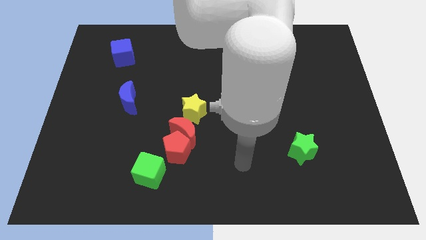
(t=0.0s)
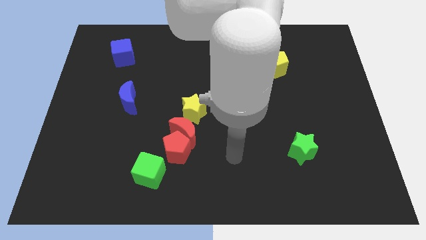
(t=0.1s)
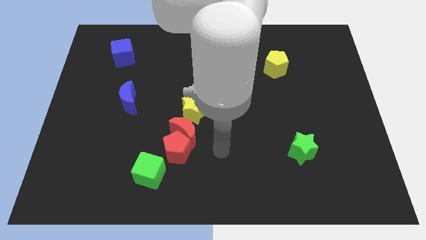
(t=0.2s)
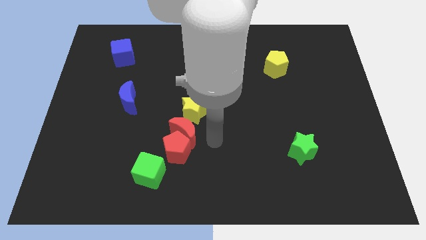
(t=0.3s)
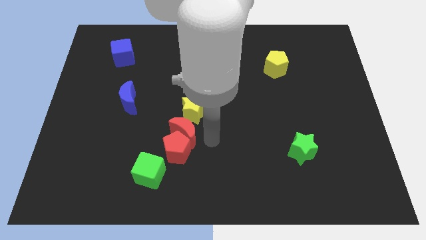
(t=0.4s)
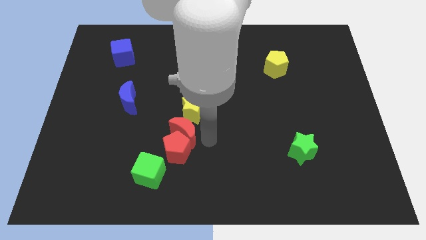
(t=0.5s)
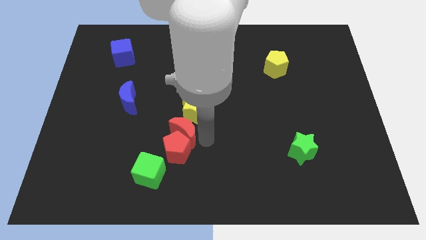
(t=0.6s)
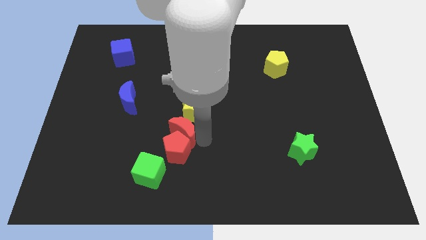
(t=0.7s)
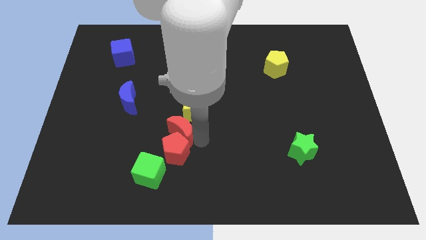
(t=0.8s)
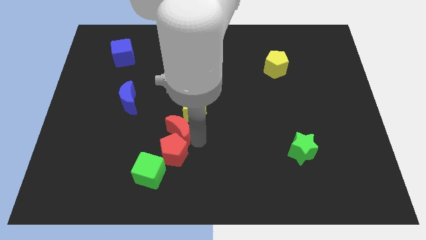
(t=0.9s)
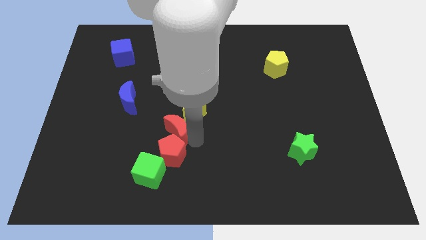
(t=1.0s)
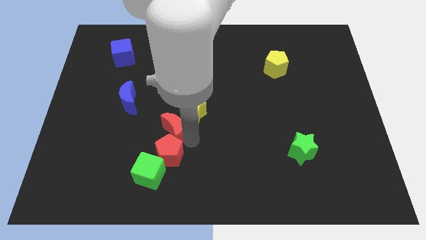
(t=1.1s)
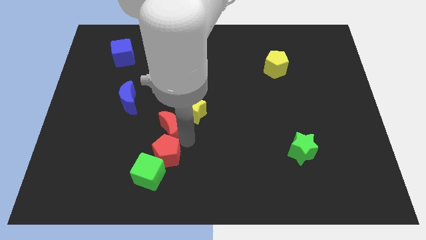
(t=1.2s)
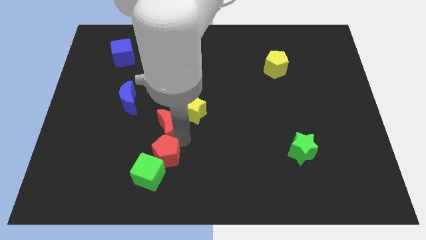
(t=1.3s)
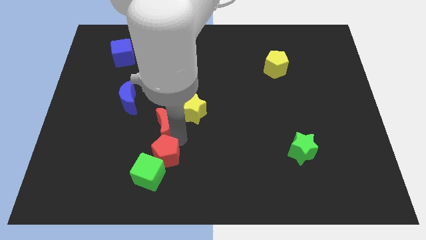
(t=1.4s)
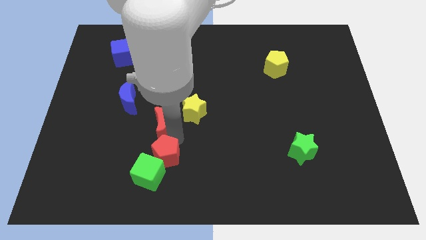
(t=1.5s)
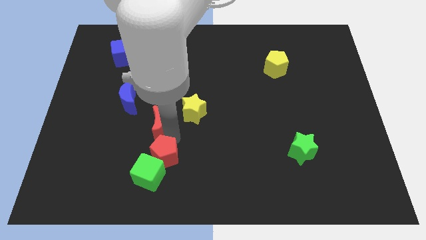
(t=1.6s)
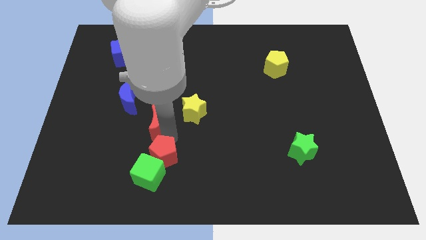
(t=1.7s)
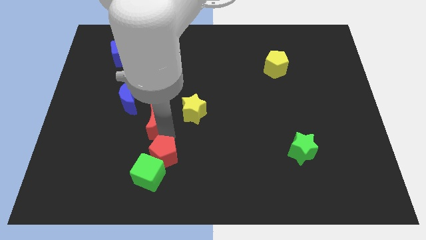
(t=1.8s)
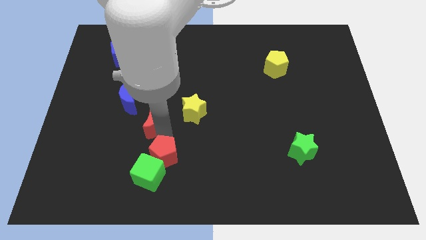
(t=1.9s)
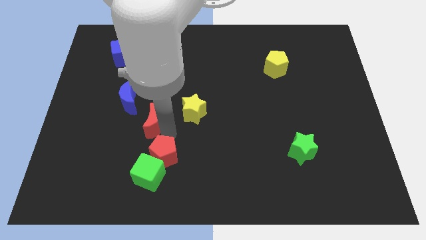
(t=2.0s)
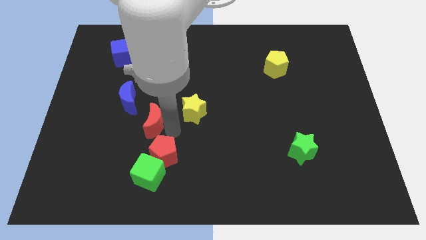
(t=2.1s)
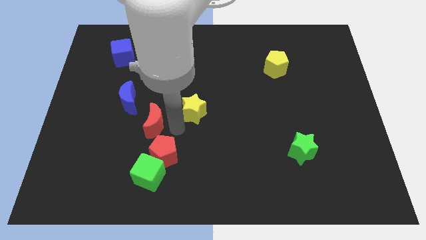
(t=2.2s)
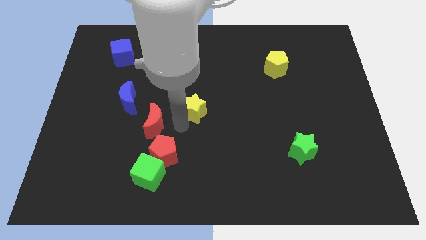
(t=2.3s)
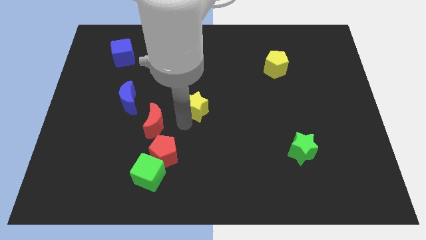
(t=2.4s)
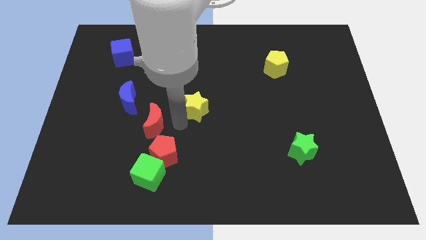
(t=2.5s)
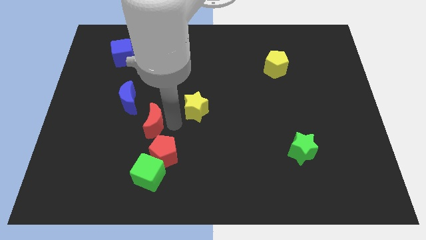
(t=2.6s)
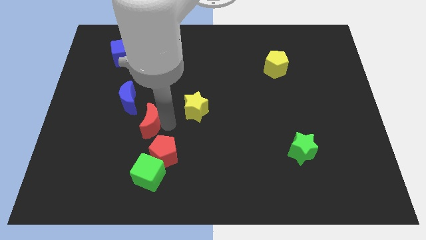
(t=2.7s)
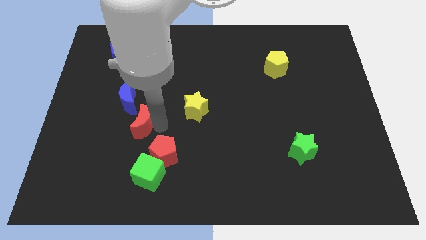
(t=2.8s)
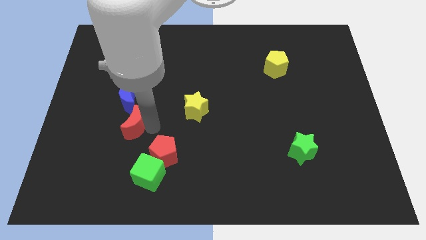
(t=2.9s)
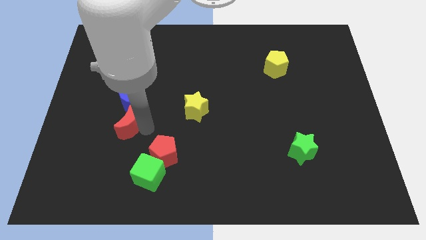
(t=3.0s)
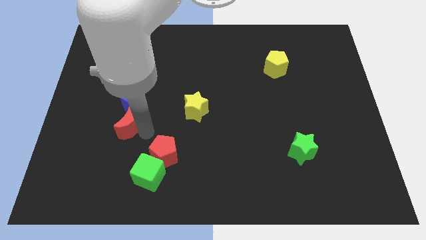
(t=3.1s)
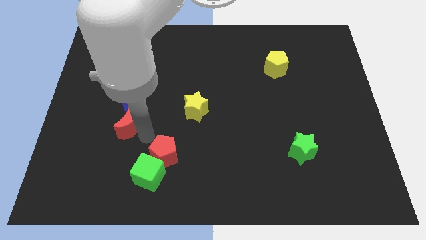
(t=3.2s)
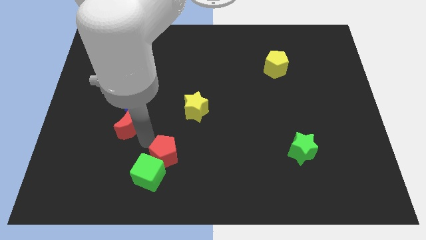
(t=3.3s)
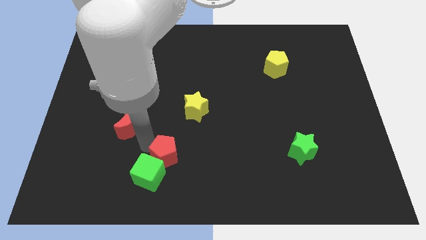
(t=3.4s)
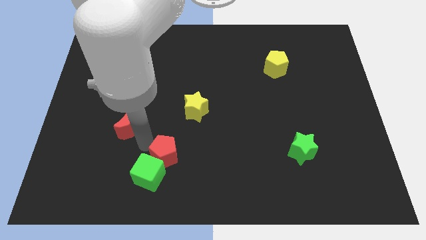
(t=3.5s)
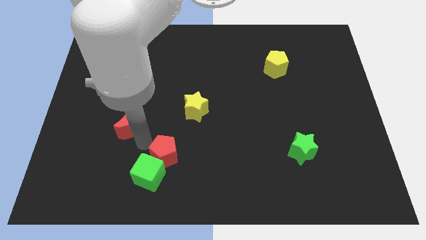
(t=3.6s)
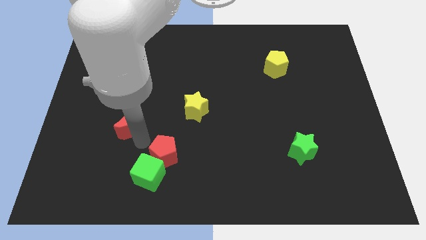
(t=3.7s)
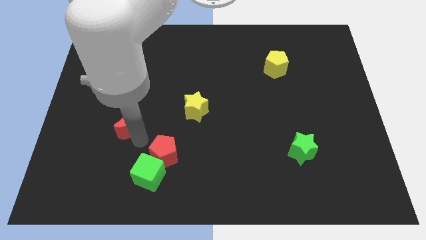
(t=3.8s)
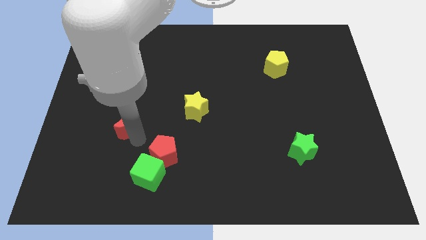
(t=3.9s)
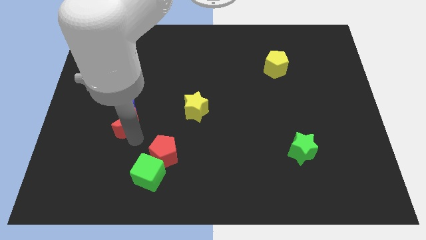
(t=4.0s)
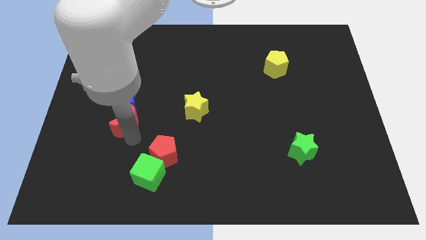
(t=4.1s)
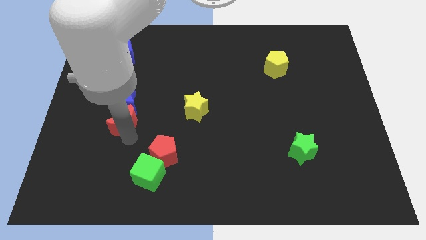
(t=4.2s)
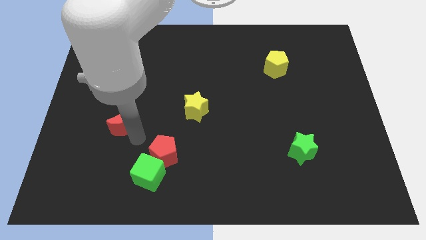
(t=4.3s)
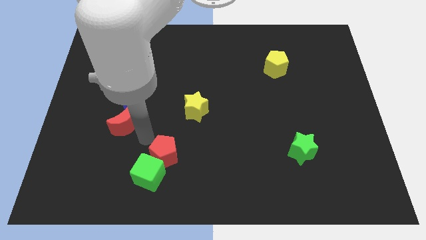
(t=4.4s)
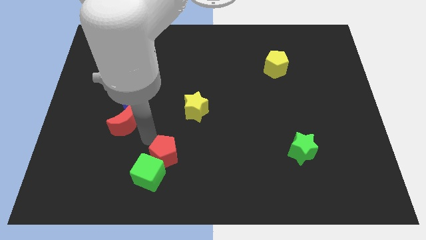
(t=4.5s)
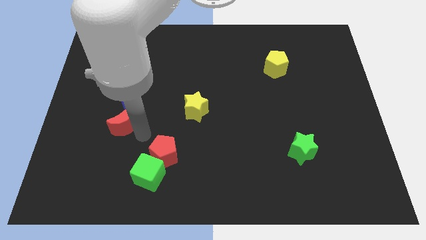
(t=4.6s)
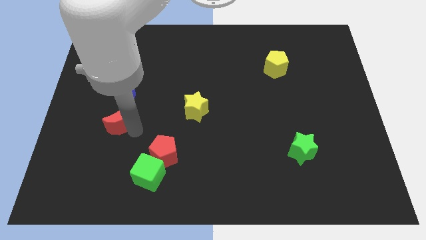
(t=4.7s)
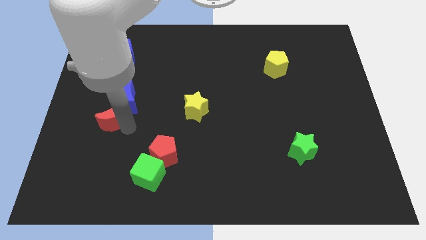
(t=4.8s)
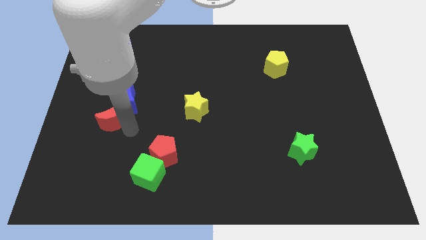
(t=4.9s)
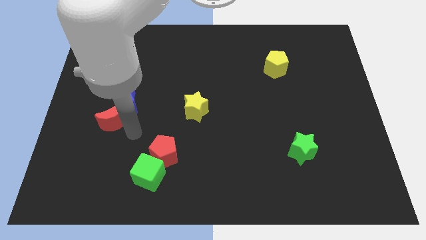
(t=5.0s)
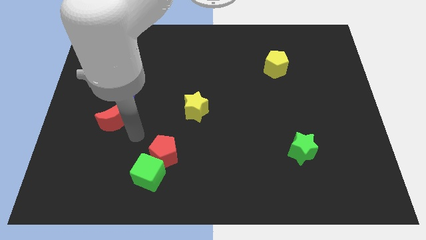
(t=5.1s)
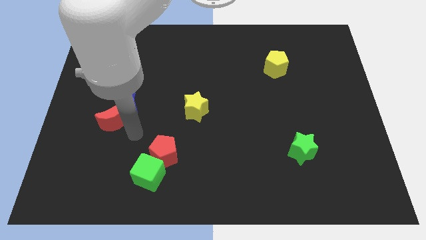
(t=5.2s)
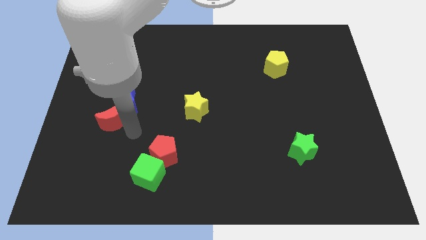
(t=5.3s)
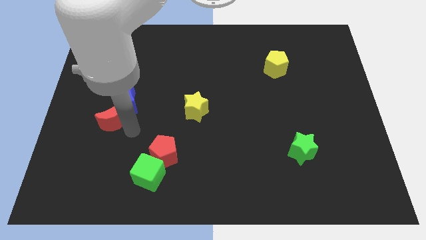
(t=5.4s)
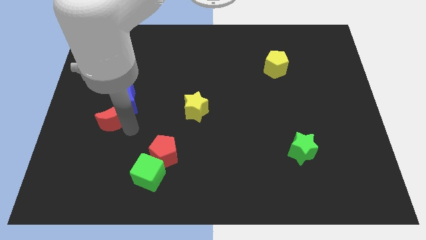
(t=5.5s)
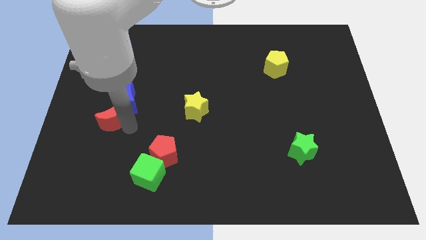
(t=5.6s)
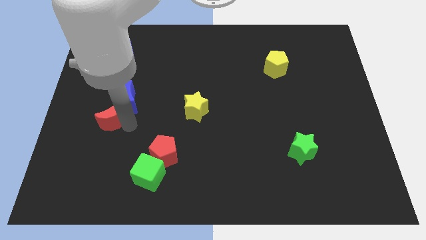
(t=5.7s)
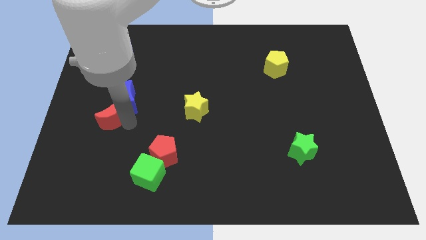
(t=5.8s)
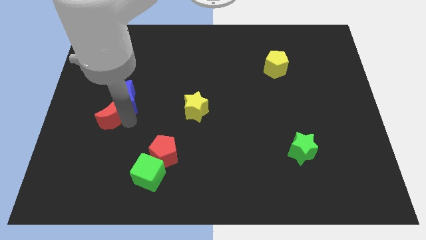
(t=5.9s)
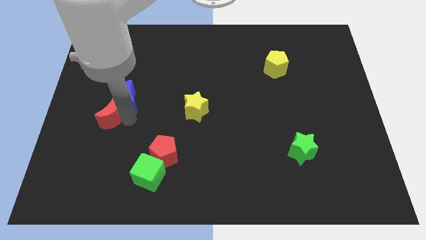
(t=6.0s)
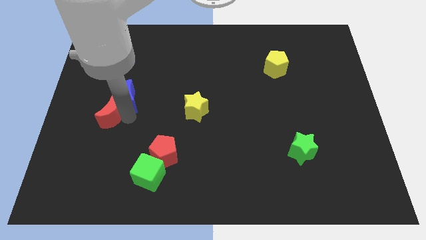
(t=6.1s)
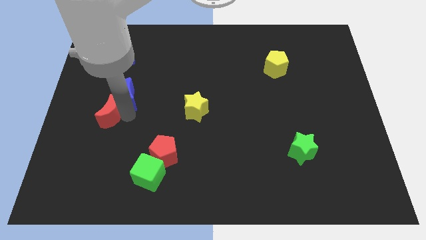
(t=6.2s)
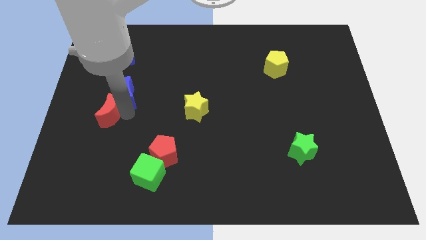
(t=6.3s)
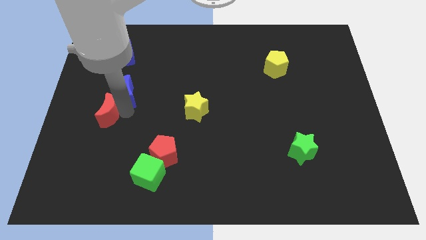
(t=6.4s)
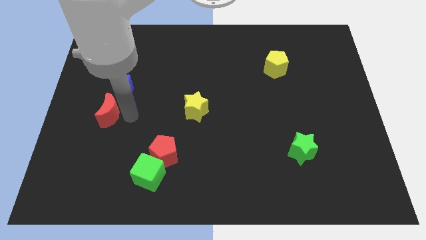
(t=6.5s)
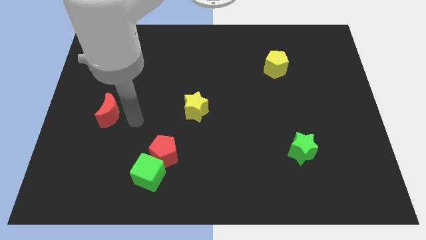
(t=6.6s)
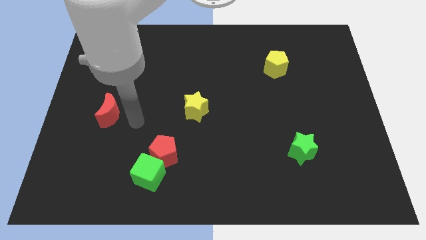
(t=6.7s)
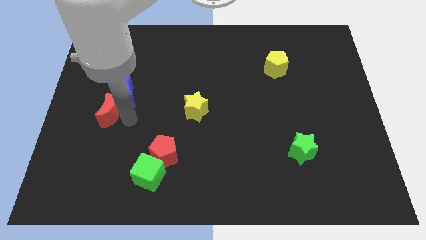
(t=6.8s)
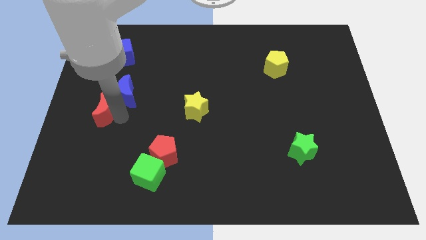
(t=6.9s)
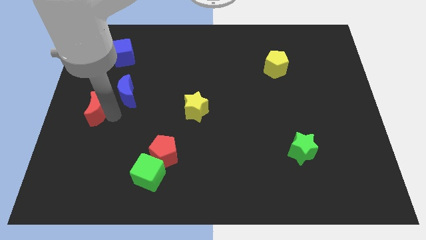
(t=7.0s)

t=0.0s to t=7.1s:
put the red moon to the left side
